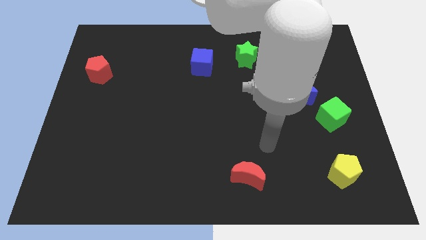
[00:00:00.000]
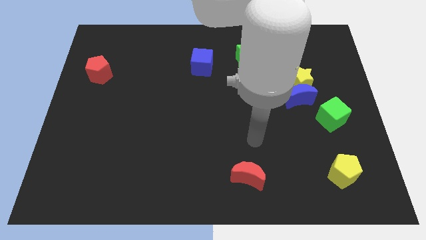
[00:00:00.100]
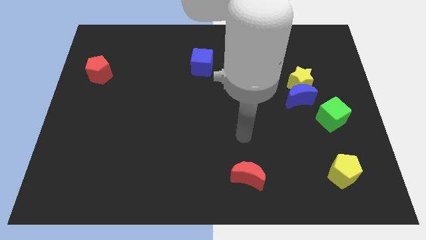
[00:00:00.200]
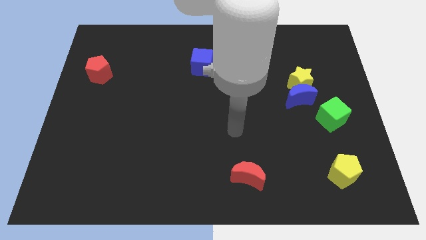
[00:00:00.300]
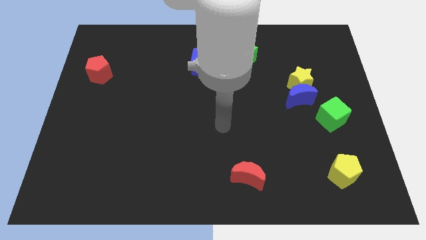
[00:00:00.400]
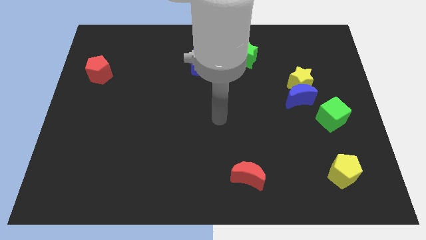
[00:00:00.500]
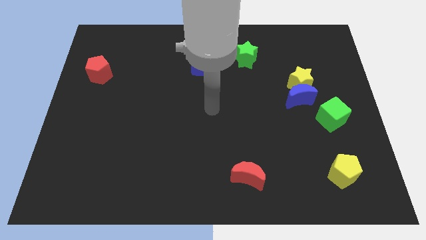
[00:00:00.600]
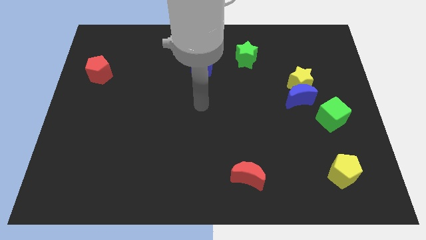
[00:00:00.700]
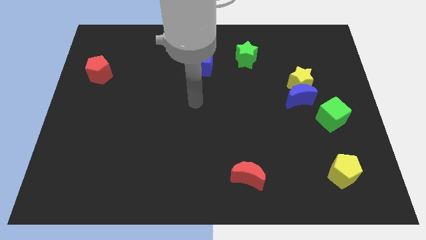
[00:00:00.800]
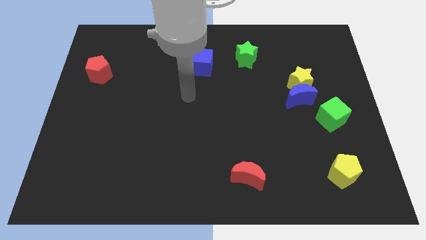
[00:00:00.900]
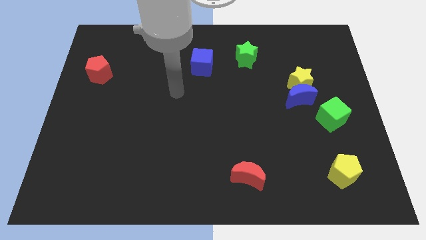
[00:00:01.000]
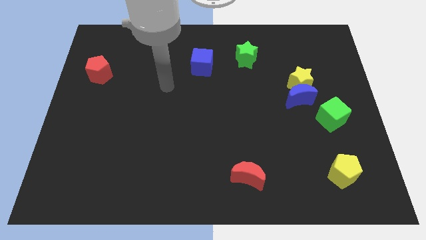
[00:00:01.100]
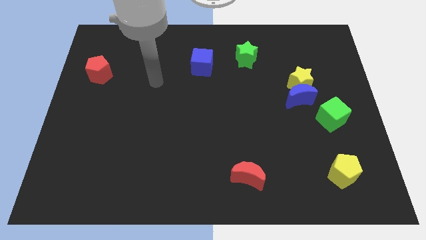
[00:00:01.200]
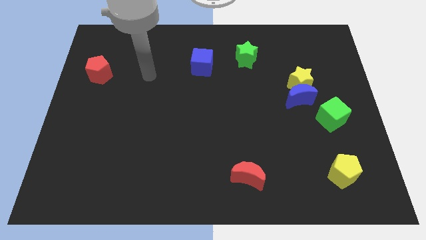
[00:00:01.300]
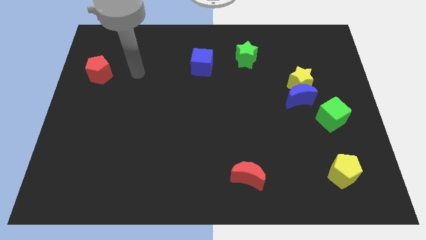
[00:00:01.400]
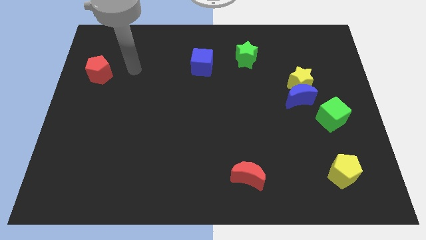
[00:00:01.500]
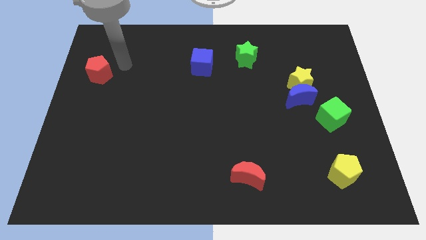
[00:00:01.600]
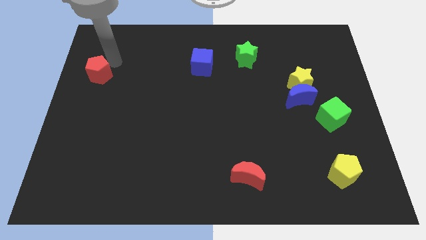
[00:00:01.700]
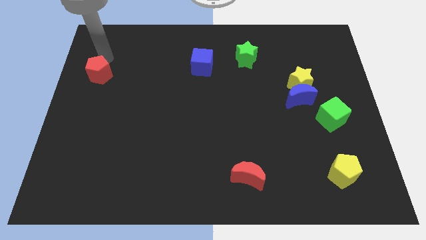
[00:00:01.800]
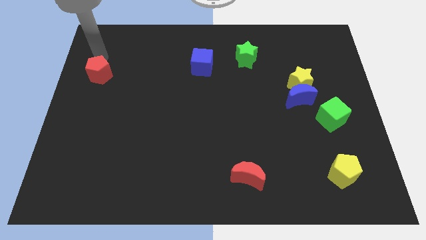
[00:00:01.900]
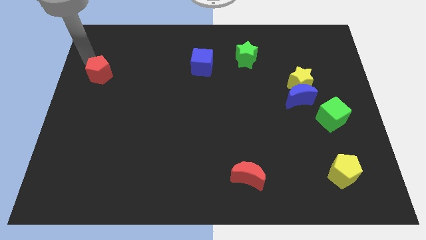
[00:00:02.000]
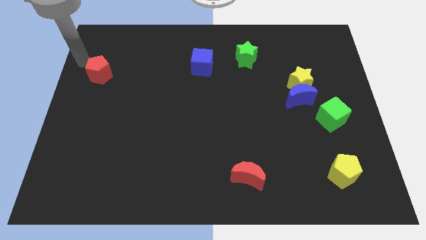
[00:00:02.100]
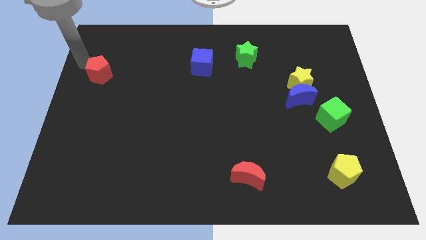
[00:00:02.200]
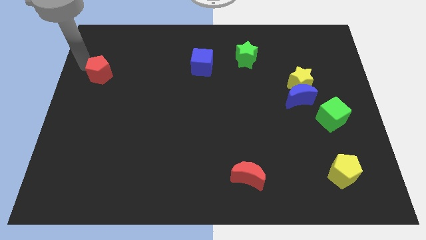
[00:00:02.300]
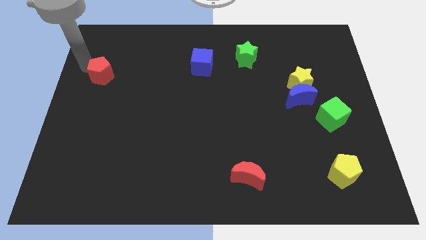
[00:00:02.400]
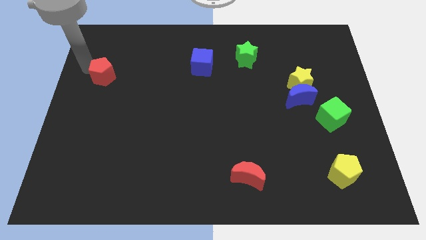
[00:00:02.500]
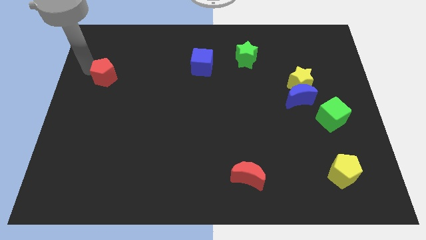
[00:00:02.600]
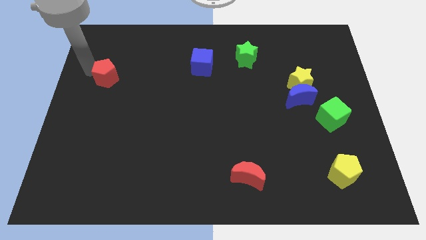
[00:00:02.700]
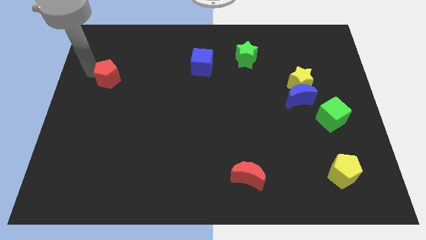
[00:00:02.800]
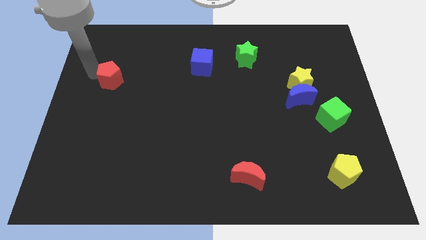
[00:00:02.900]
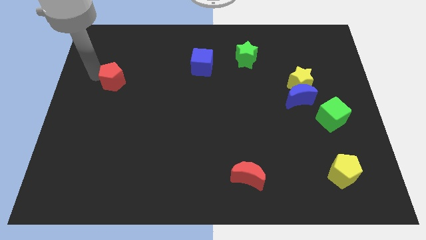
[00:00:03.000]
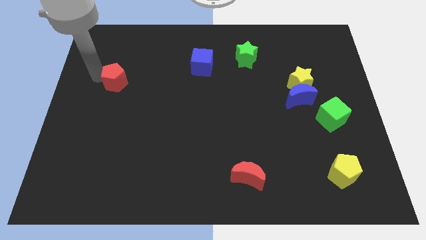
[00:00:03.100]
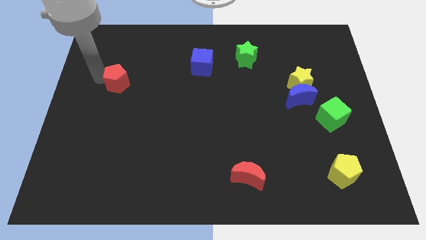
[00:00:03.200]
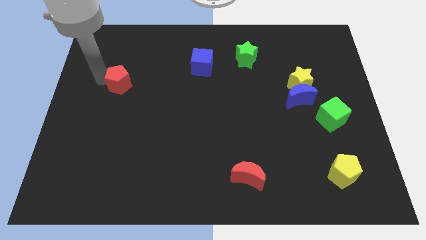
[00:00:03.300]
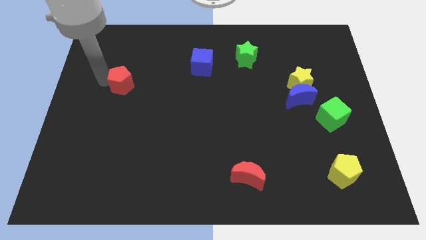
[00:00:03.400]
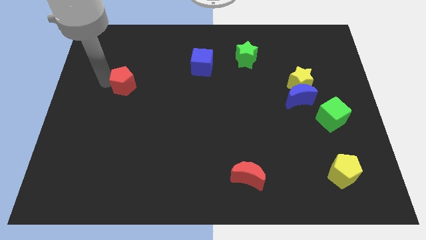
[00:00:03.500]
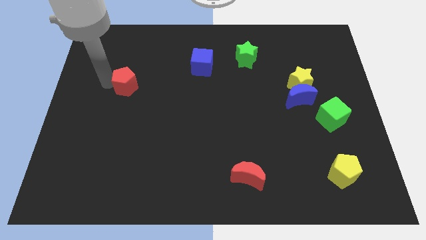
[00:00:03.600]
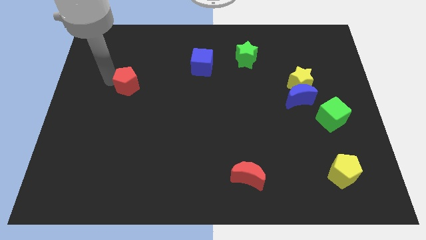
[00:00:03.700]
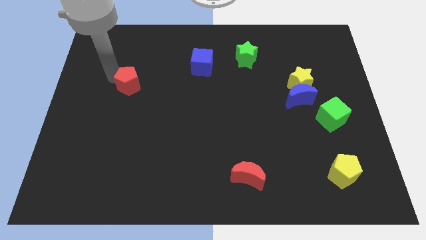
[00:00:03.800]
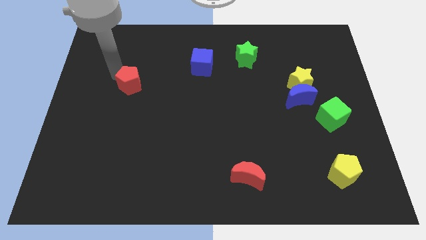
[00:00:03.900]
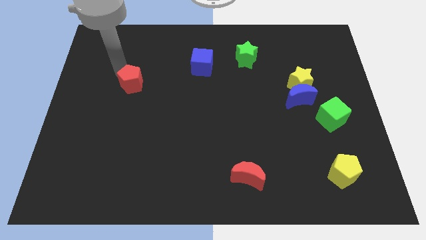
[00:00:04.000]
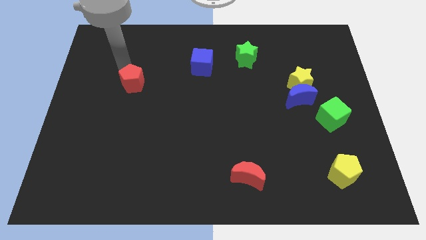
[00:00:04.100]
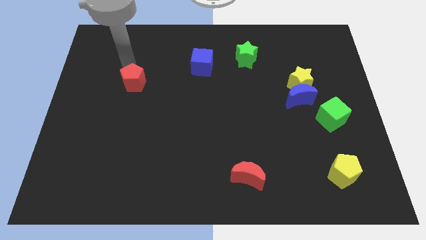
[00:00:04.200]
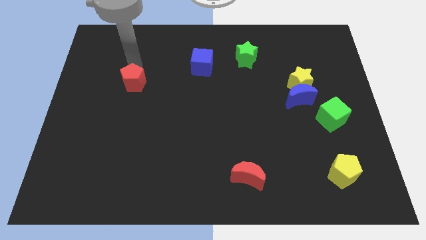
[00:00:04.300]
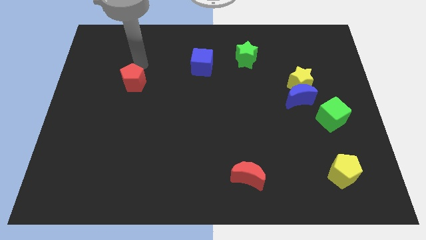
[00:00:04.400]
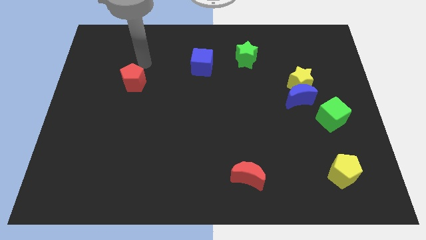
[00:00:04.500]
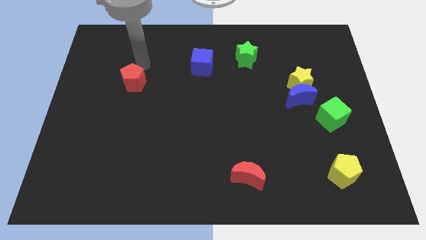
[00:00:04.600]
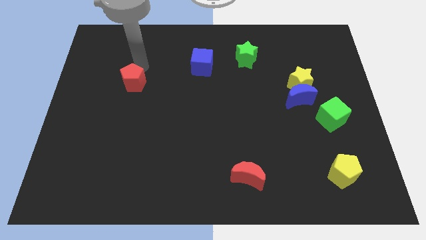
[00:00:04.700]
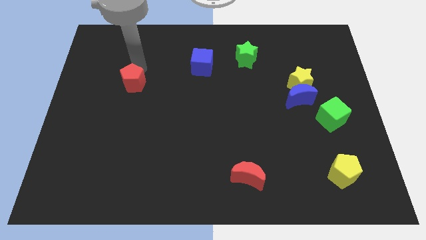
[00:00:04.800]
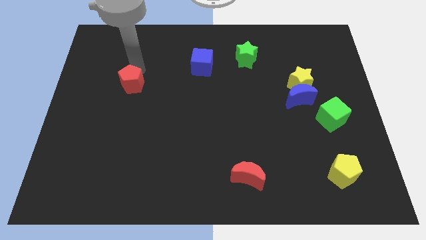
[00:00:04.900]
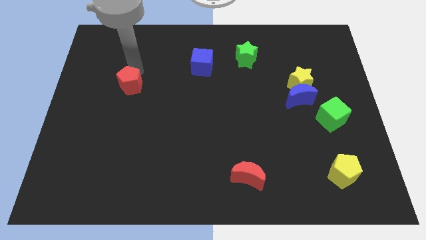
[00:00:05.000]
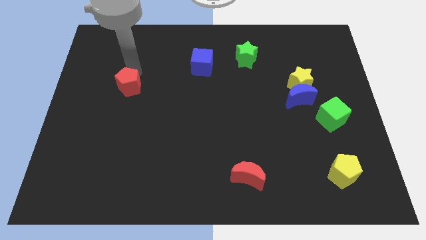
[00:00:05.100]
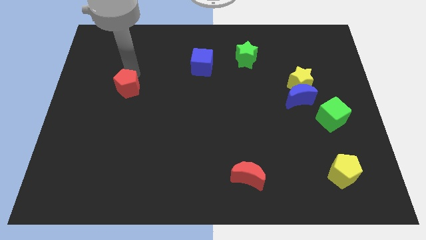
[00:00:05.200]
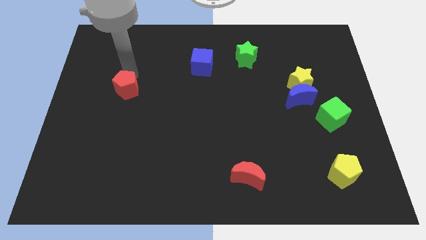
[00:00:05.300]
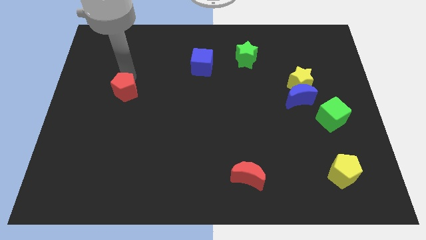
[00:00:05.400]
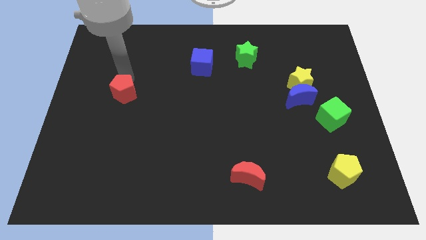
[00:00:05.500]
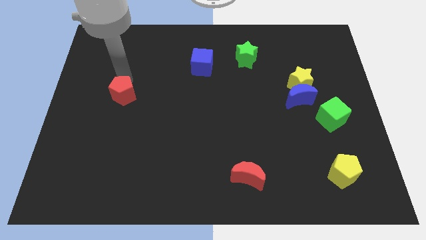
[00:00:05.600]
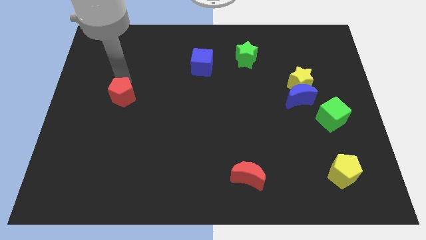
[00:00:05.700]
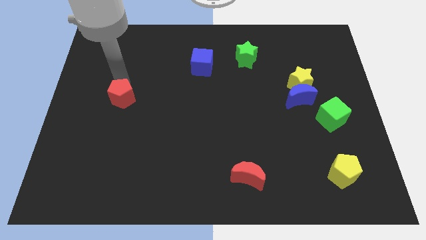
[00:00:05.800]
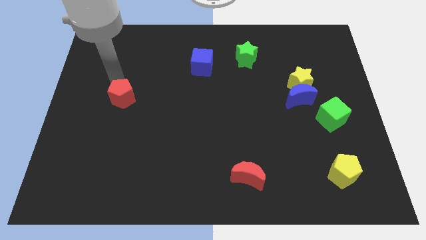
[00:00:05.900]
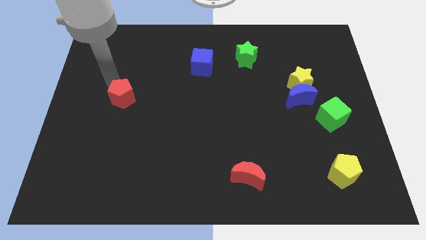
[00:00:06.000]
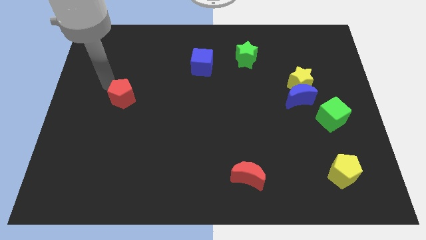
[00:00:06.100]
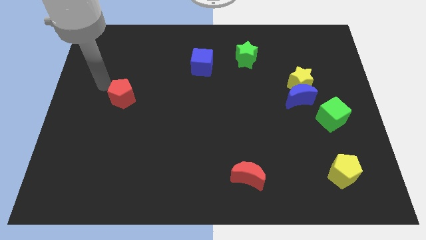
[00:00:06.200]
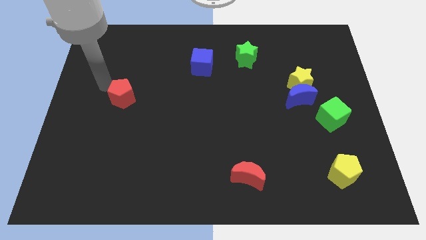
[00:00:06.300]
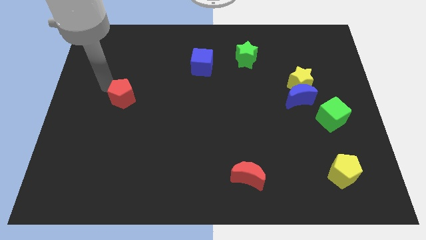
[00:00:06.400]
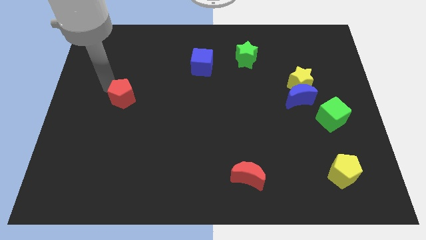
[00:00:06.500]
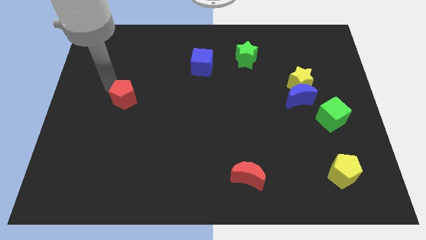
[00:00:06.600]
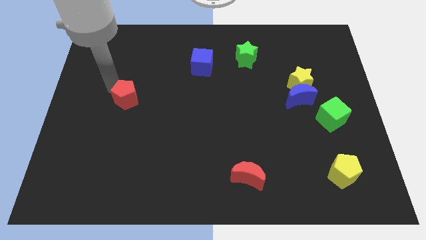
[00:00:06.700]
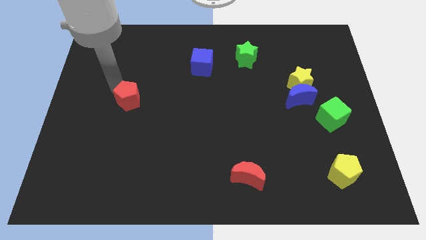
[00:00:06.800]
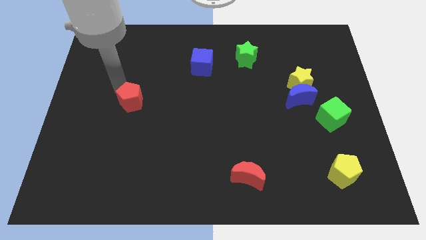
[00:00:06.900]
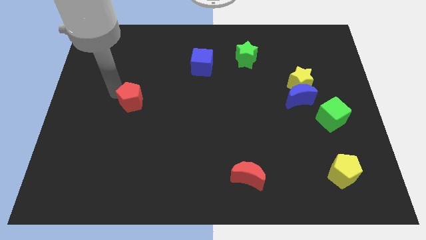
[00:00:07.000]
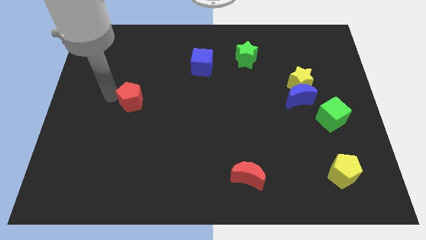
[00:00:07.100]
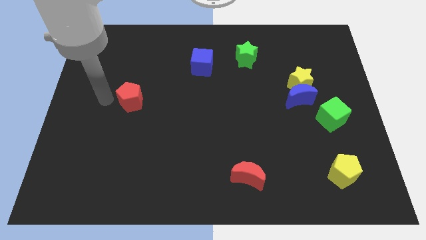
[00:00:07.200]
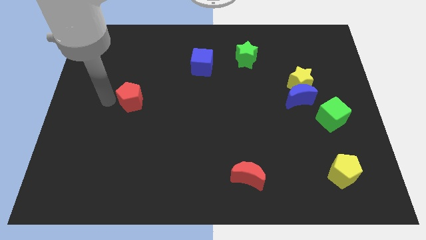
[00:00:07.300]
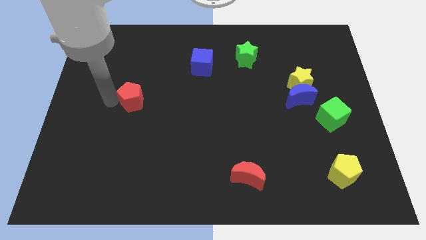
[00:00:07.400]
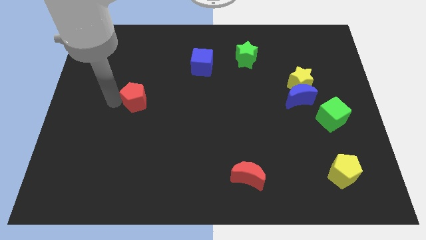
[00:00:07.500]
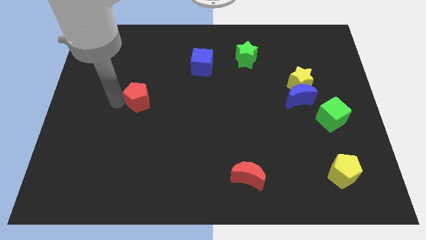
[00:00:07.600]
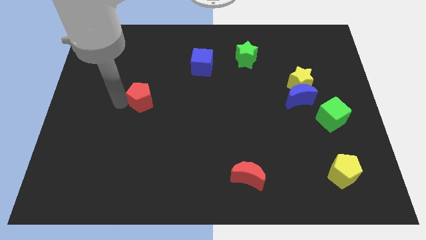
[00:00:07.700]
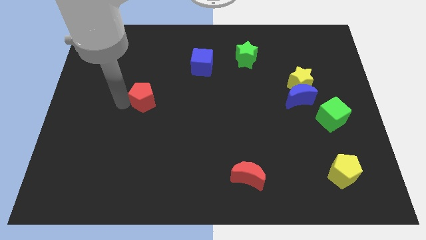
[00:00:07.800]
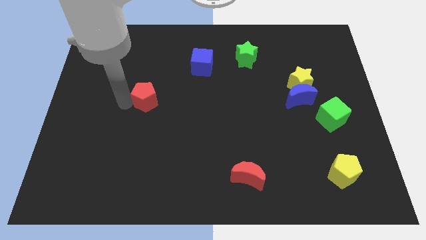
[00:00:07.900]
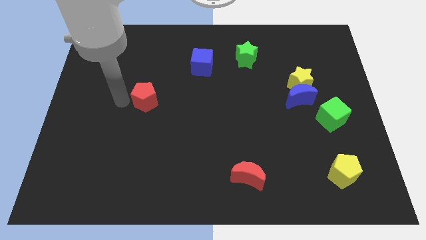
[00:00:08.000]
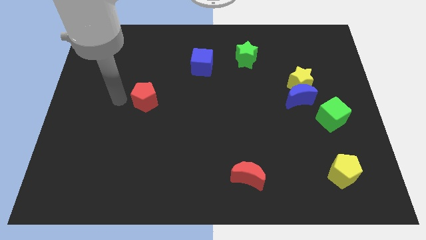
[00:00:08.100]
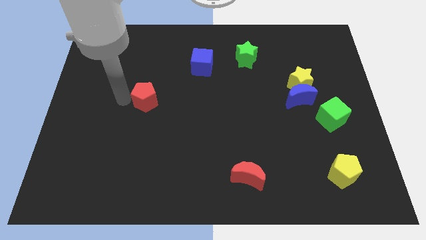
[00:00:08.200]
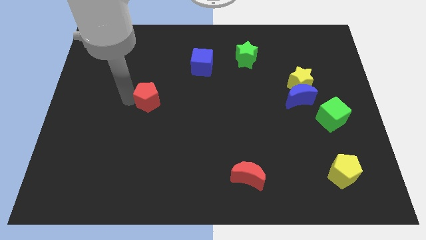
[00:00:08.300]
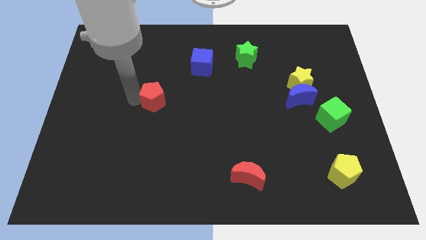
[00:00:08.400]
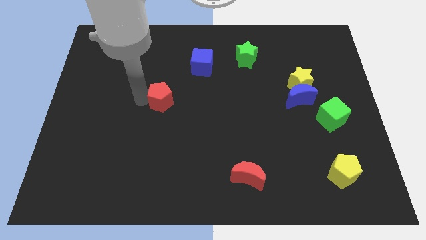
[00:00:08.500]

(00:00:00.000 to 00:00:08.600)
slide the red pentagon to the middle
